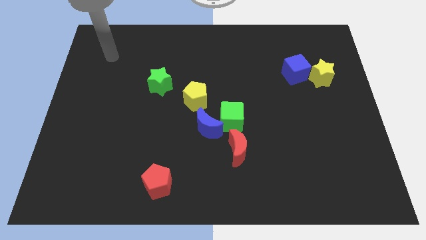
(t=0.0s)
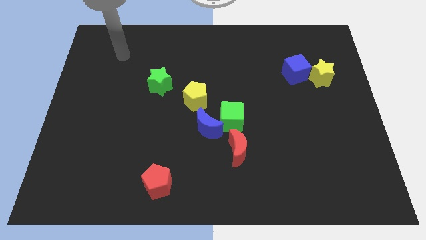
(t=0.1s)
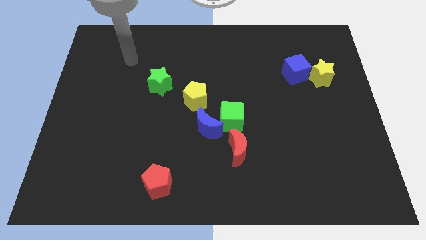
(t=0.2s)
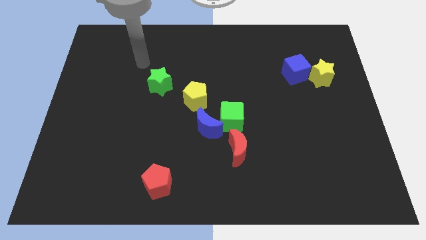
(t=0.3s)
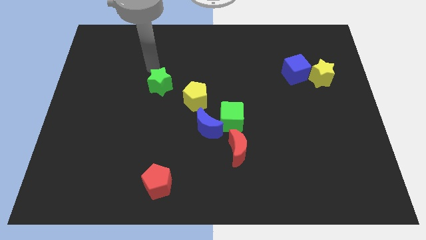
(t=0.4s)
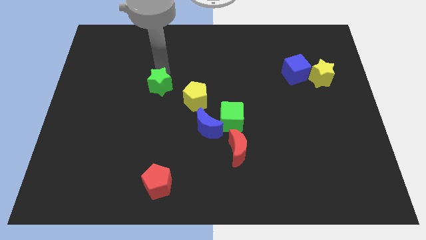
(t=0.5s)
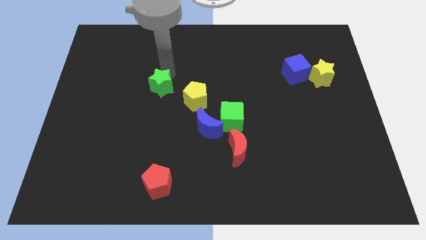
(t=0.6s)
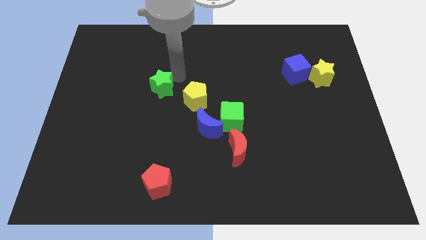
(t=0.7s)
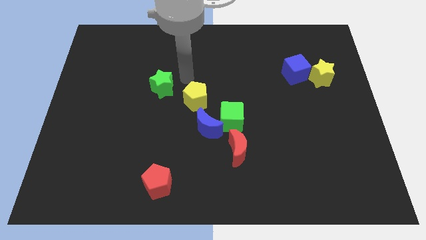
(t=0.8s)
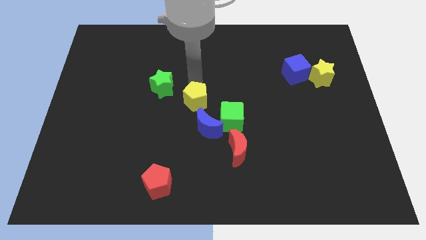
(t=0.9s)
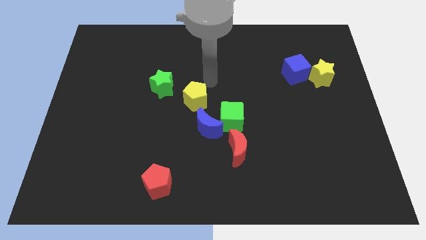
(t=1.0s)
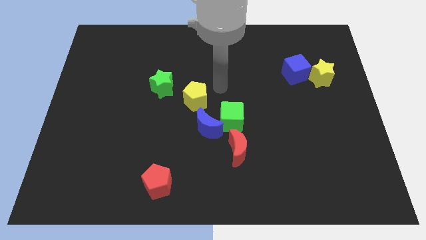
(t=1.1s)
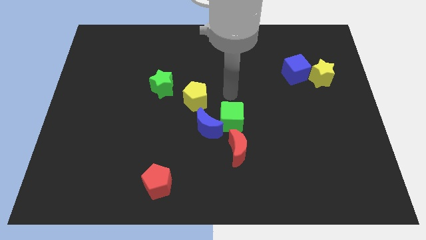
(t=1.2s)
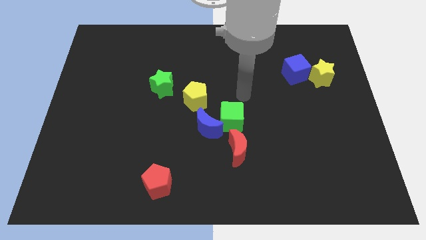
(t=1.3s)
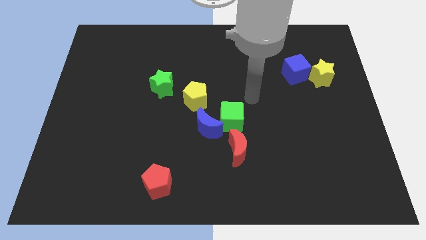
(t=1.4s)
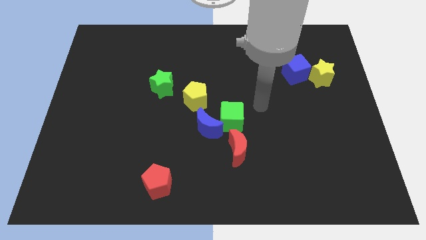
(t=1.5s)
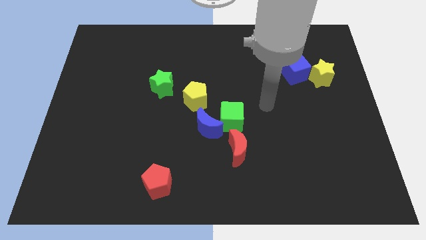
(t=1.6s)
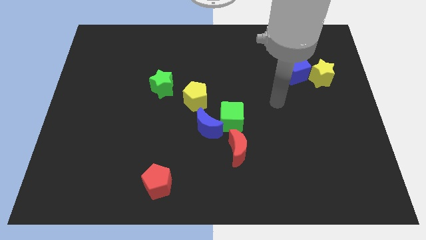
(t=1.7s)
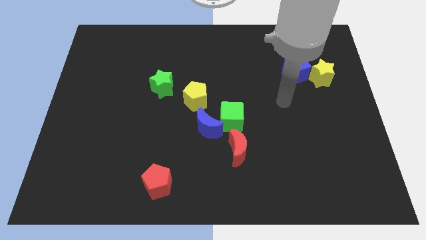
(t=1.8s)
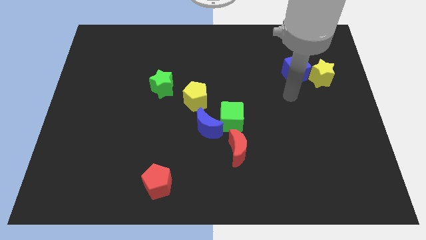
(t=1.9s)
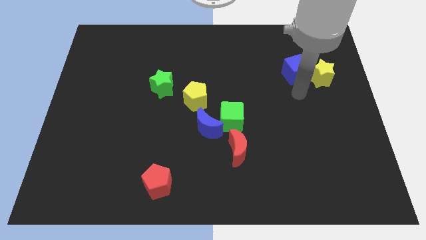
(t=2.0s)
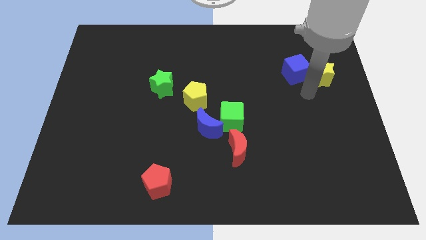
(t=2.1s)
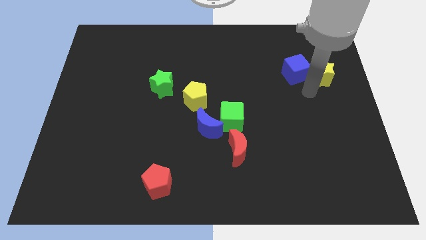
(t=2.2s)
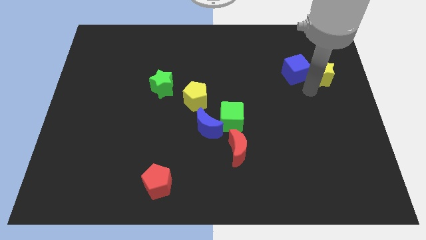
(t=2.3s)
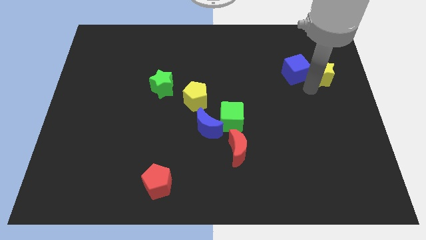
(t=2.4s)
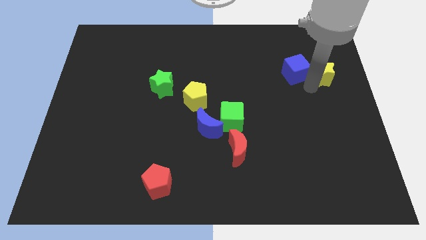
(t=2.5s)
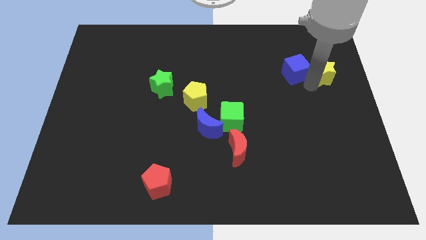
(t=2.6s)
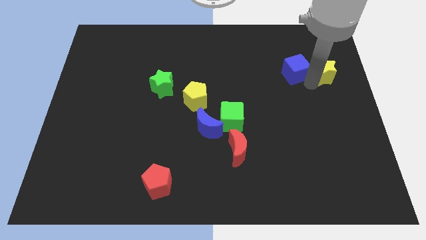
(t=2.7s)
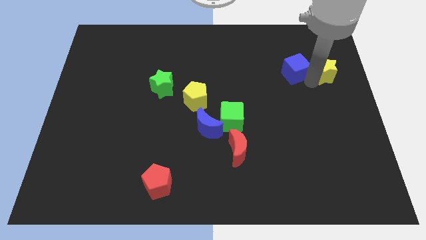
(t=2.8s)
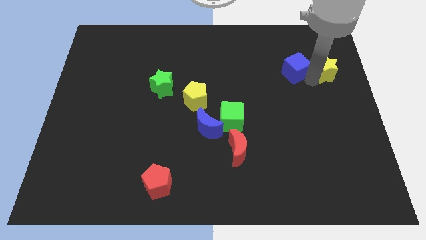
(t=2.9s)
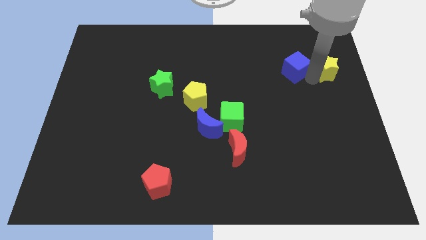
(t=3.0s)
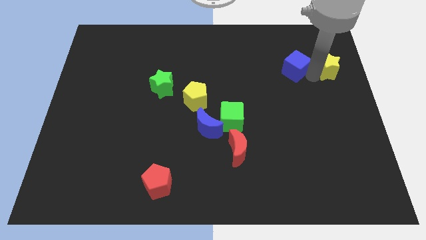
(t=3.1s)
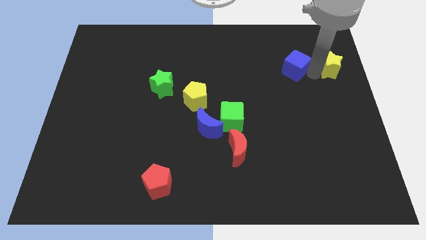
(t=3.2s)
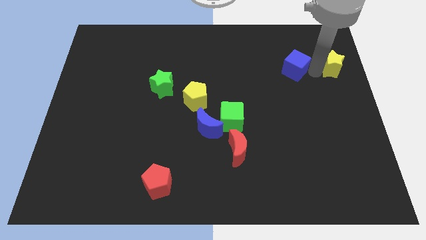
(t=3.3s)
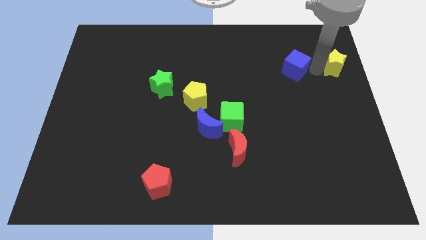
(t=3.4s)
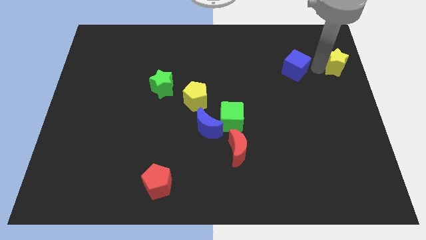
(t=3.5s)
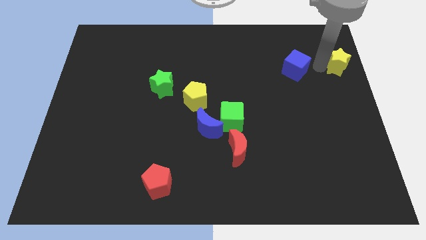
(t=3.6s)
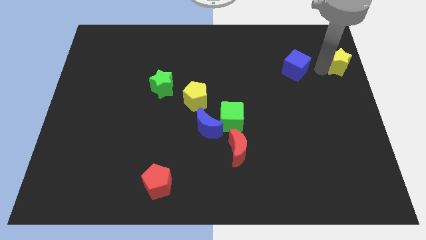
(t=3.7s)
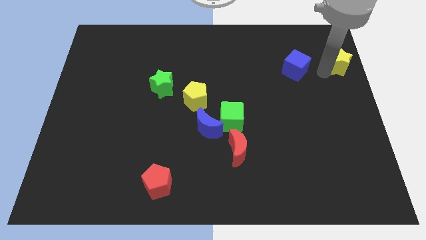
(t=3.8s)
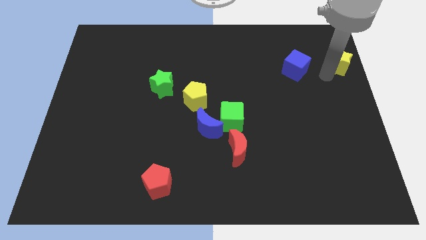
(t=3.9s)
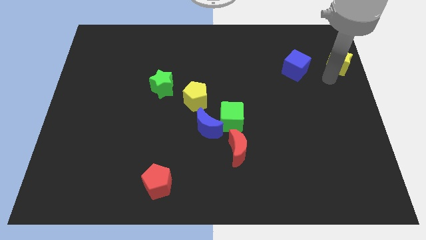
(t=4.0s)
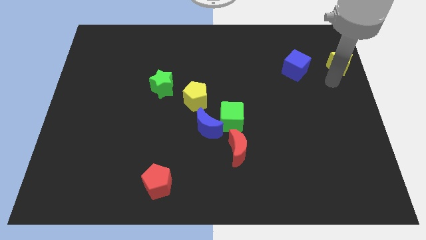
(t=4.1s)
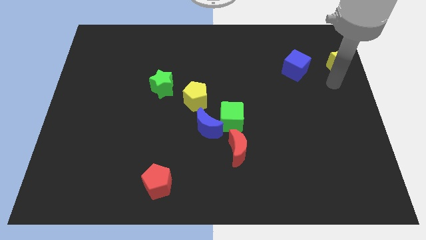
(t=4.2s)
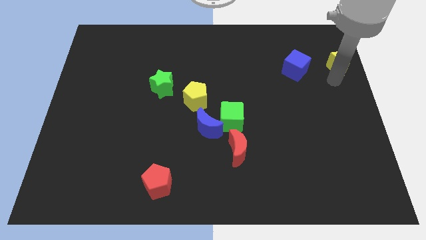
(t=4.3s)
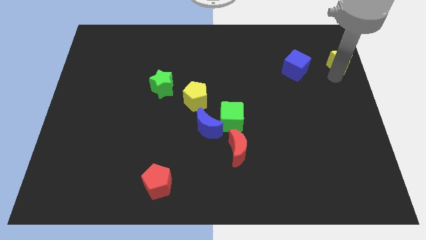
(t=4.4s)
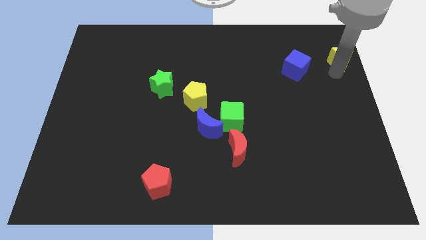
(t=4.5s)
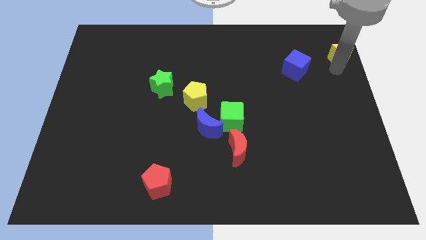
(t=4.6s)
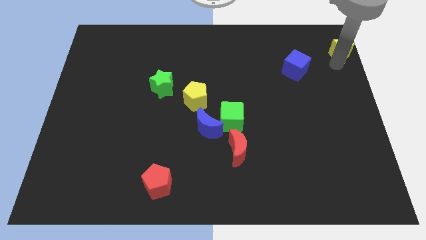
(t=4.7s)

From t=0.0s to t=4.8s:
put the yellow star to the upper right corner

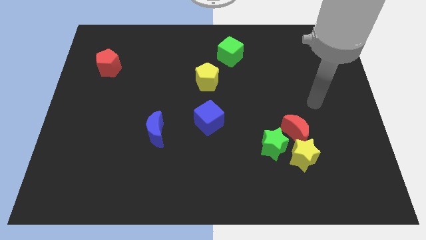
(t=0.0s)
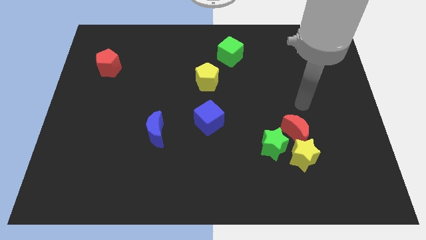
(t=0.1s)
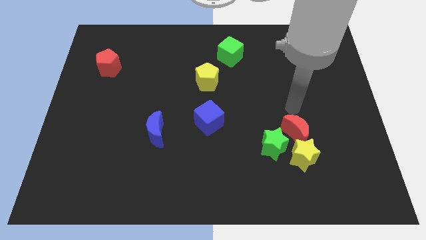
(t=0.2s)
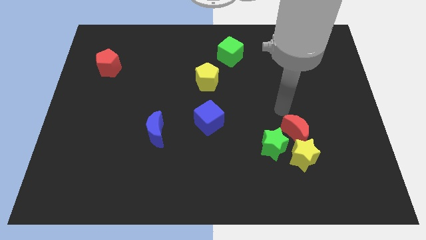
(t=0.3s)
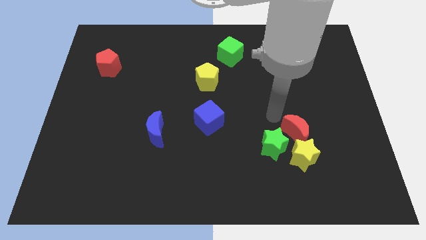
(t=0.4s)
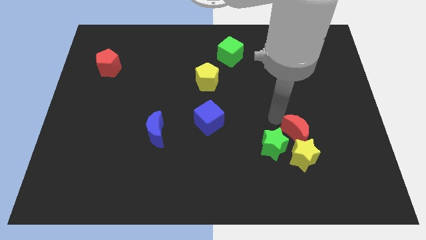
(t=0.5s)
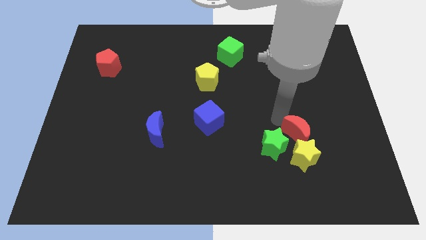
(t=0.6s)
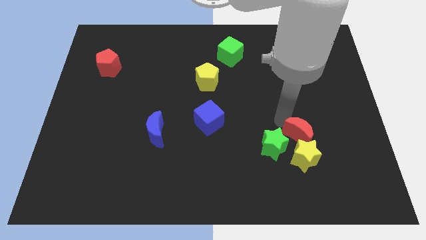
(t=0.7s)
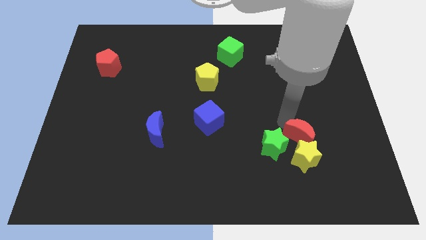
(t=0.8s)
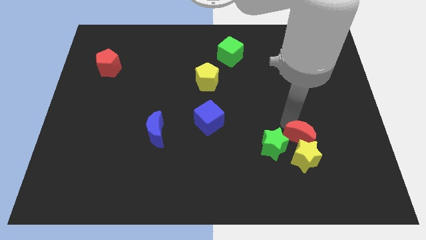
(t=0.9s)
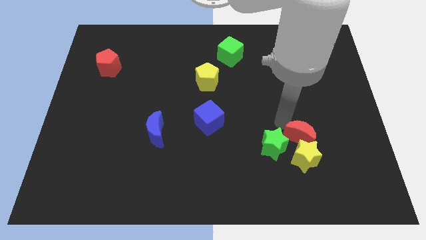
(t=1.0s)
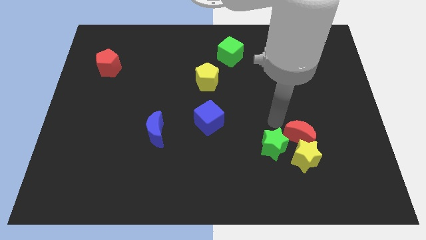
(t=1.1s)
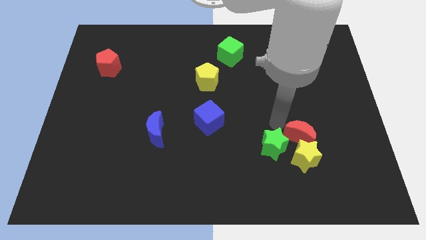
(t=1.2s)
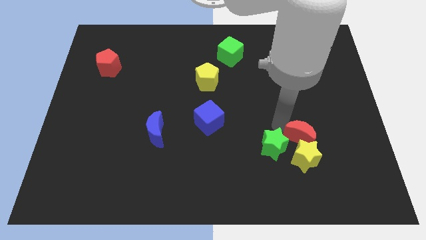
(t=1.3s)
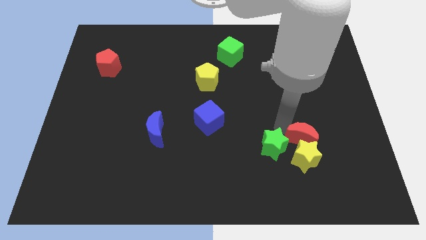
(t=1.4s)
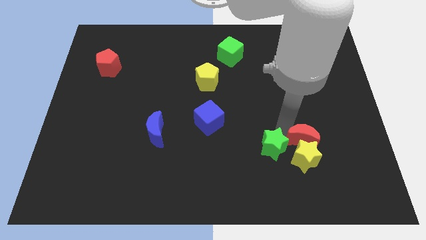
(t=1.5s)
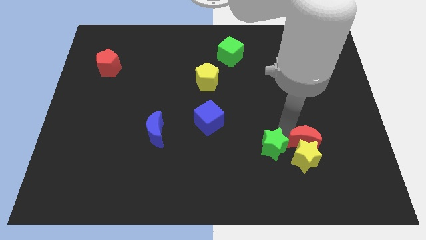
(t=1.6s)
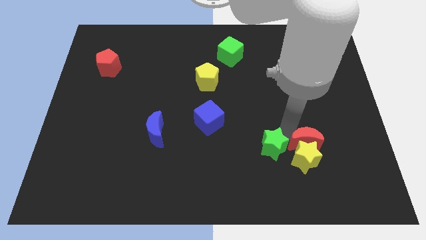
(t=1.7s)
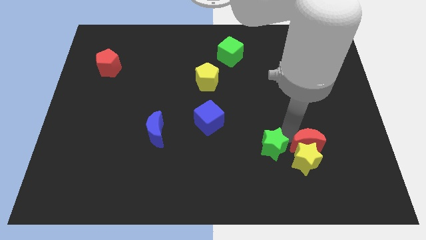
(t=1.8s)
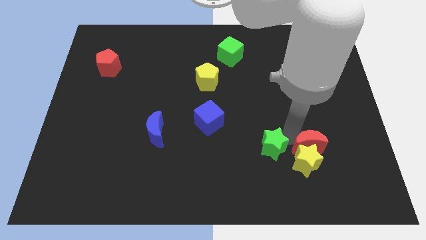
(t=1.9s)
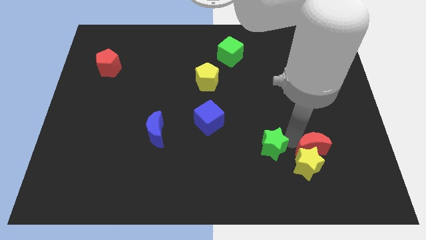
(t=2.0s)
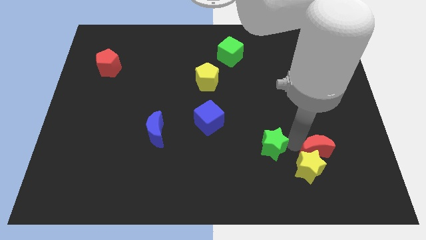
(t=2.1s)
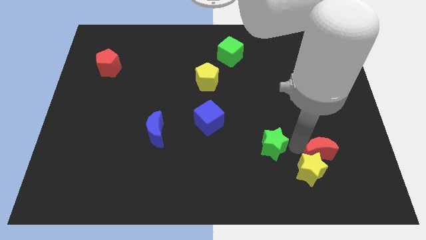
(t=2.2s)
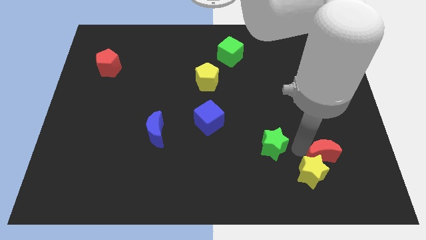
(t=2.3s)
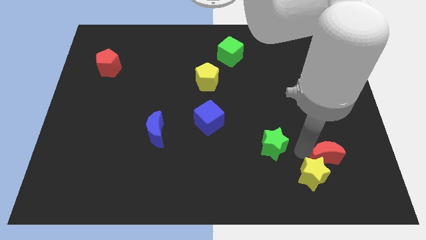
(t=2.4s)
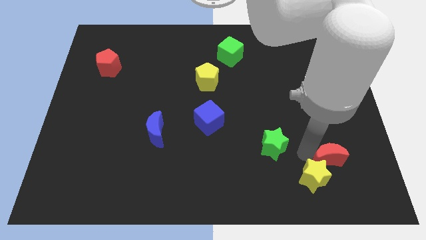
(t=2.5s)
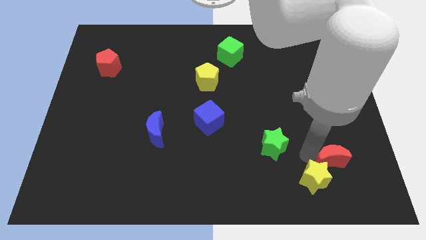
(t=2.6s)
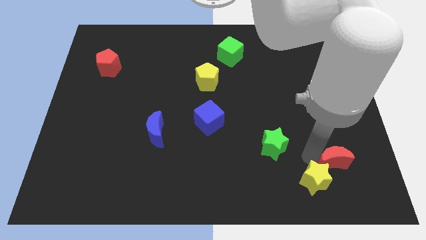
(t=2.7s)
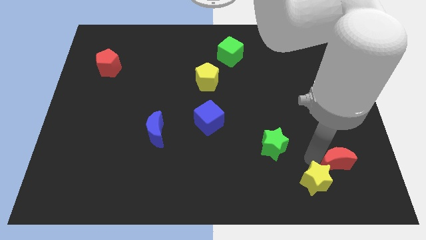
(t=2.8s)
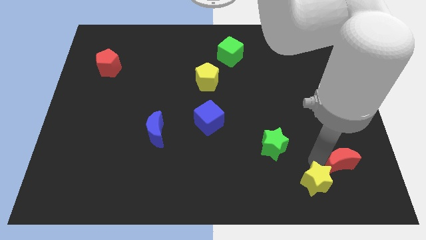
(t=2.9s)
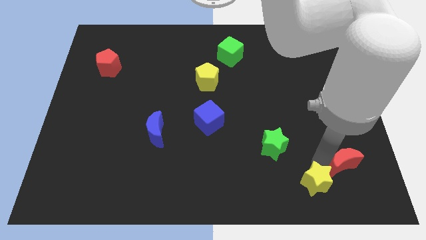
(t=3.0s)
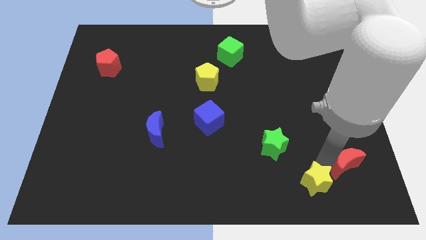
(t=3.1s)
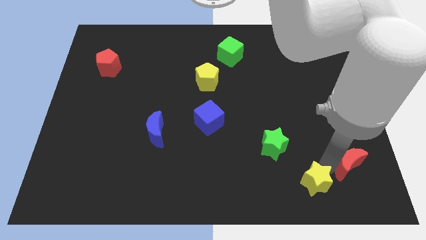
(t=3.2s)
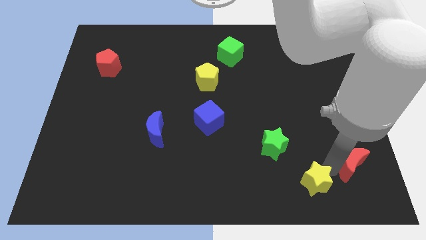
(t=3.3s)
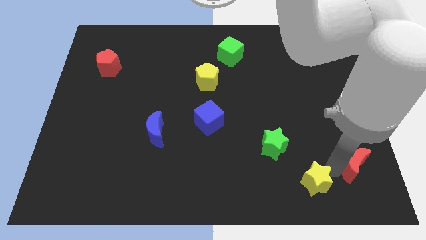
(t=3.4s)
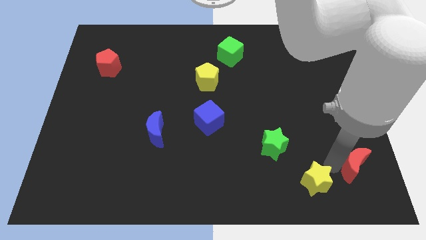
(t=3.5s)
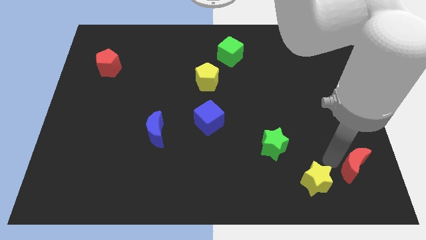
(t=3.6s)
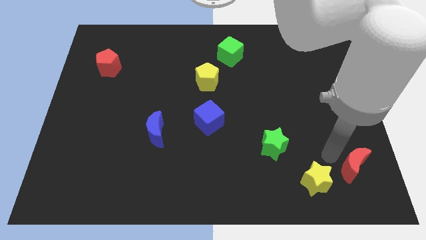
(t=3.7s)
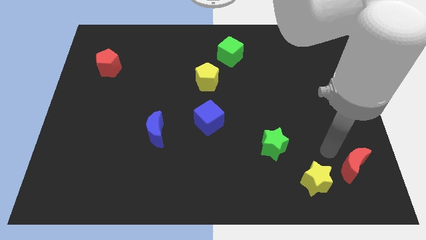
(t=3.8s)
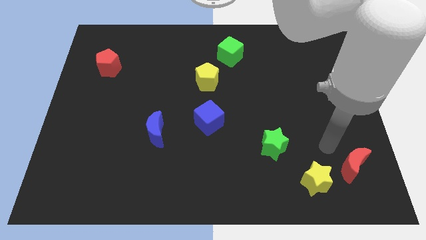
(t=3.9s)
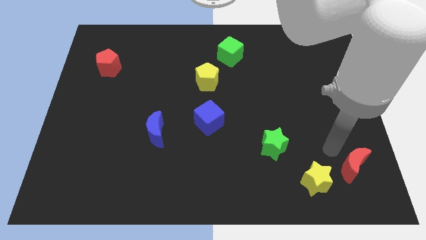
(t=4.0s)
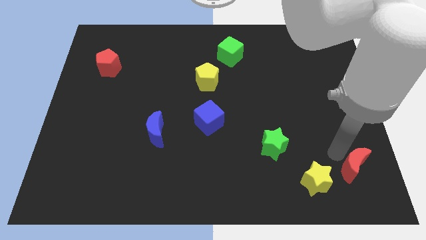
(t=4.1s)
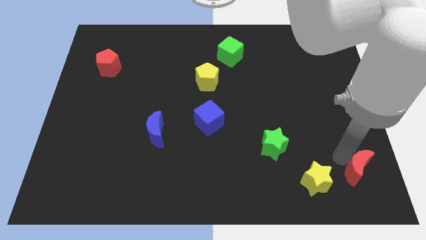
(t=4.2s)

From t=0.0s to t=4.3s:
push the red moon to the bottom right of the board
